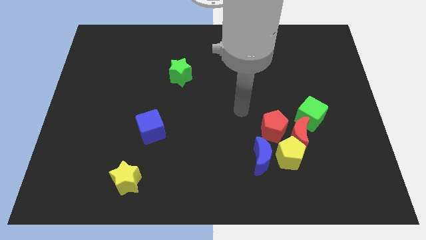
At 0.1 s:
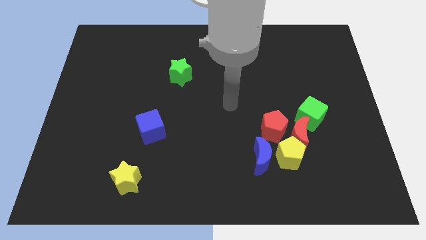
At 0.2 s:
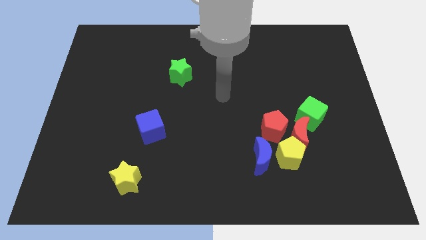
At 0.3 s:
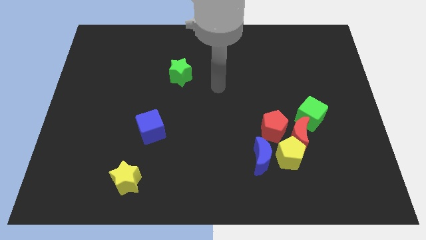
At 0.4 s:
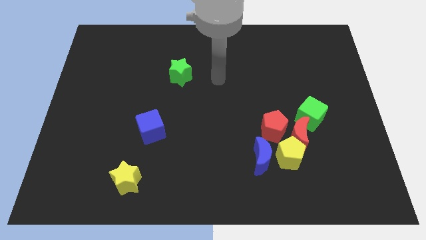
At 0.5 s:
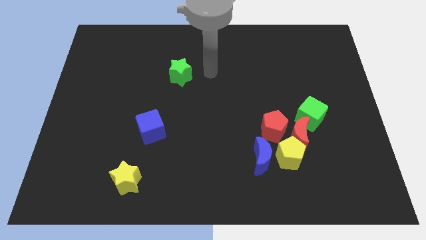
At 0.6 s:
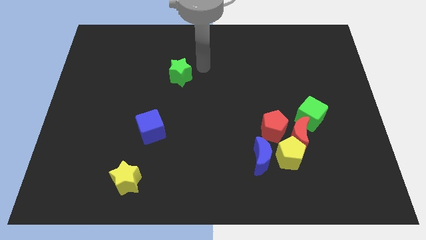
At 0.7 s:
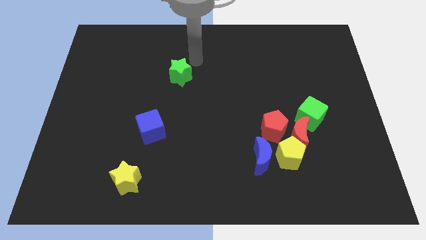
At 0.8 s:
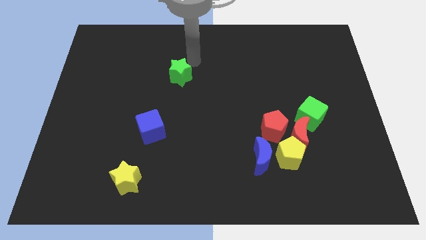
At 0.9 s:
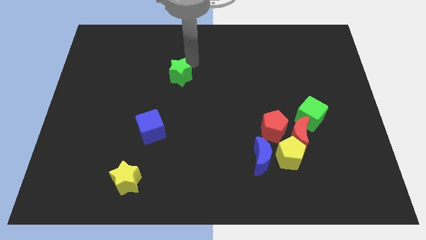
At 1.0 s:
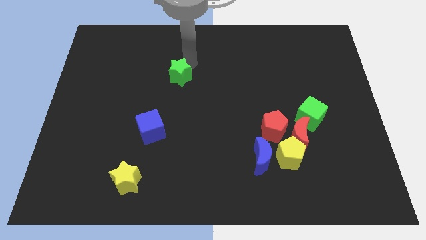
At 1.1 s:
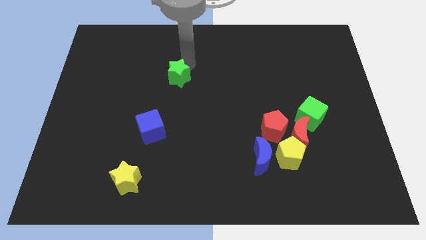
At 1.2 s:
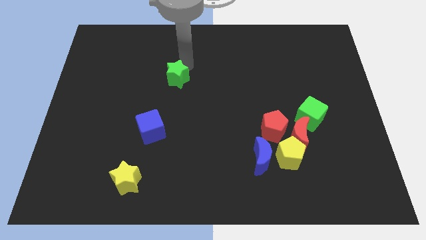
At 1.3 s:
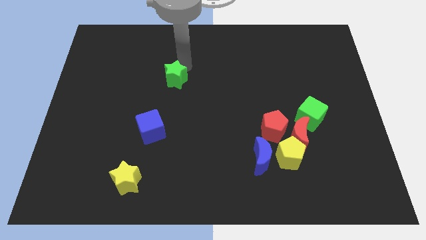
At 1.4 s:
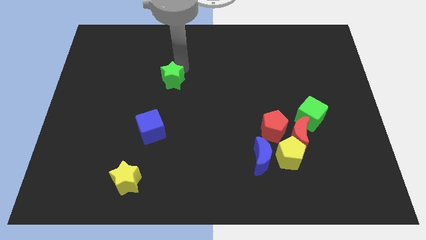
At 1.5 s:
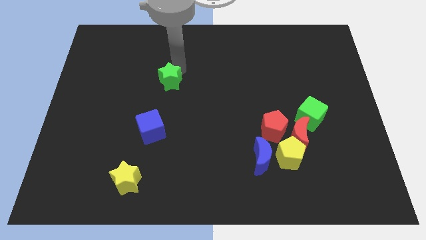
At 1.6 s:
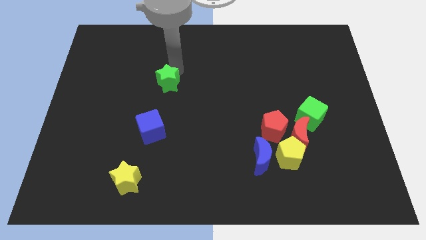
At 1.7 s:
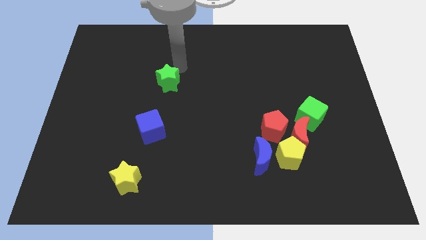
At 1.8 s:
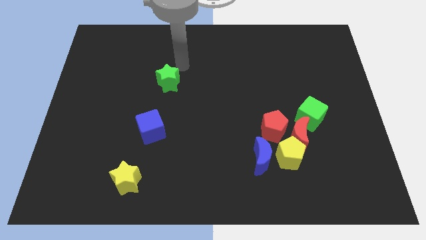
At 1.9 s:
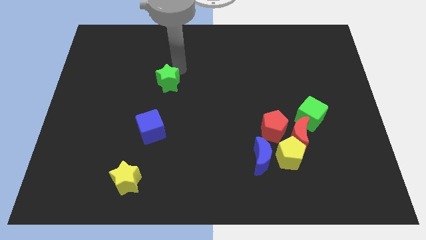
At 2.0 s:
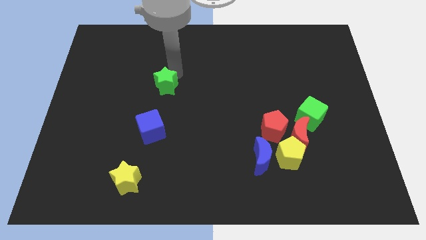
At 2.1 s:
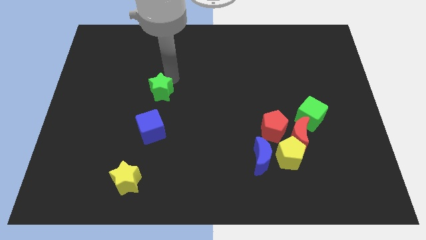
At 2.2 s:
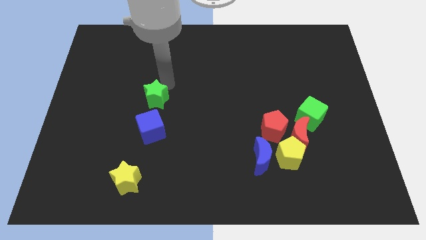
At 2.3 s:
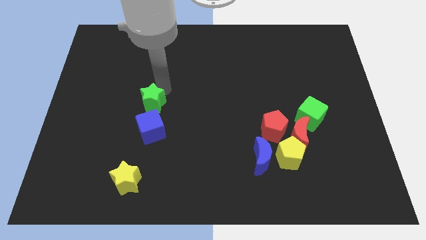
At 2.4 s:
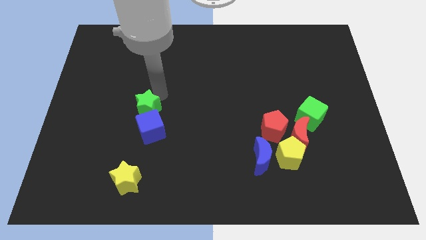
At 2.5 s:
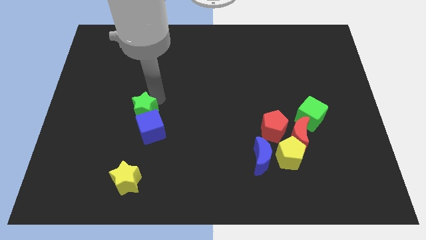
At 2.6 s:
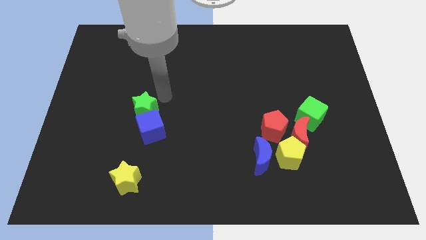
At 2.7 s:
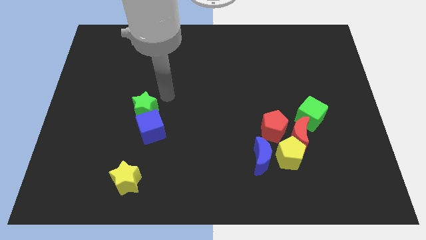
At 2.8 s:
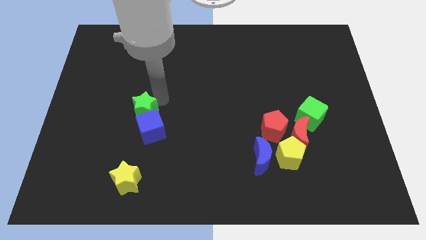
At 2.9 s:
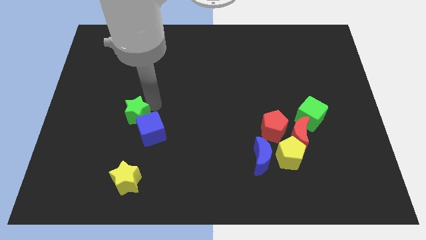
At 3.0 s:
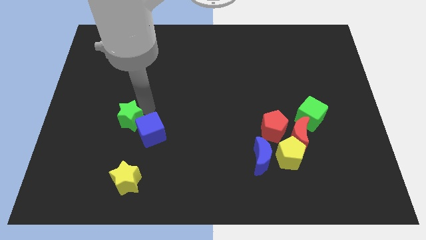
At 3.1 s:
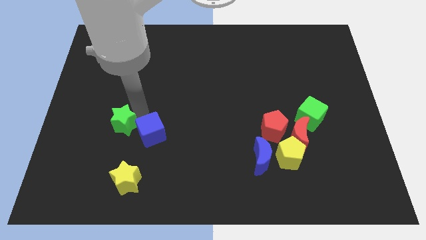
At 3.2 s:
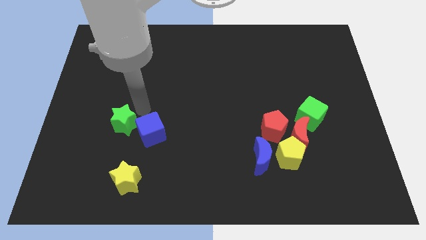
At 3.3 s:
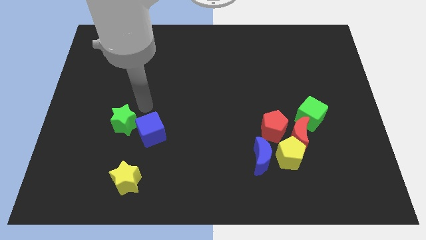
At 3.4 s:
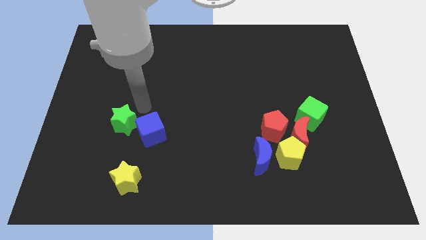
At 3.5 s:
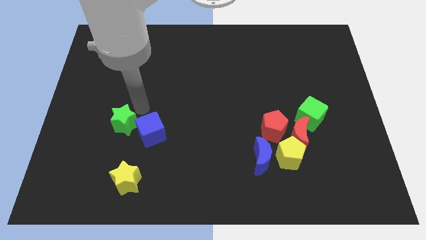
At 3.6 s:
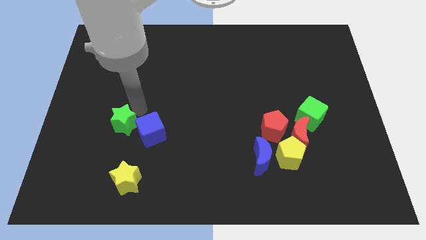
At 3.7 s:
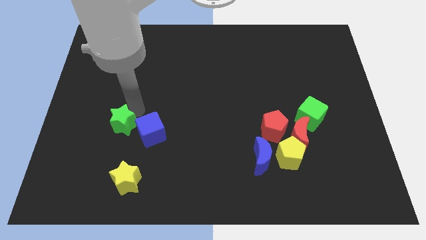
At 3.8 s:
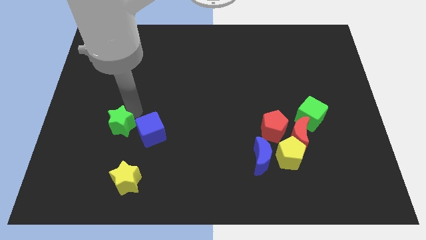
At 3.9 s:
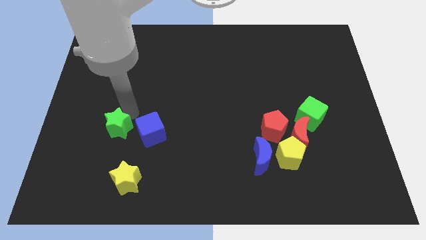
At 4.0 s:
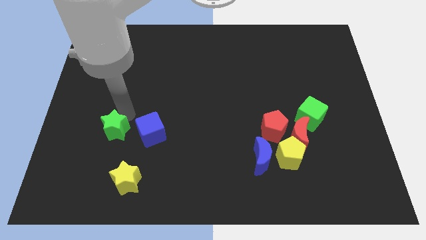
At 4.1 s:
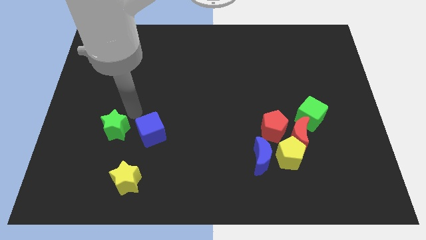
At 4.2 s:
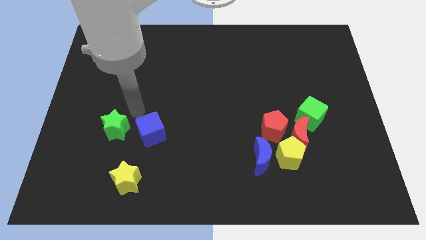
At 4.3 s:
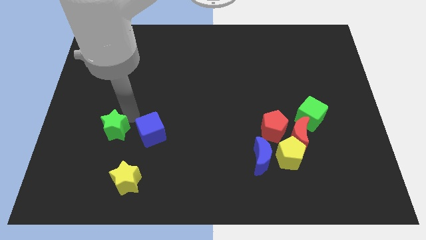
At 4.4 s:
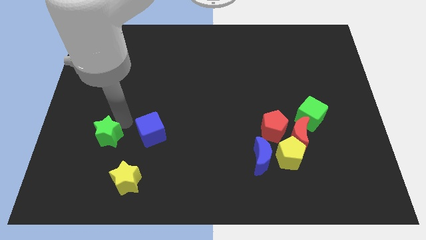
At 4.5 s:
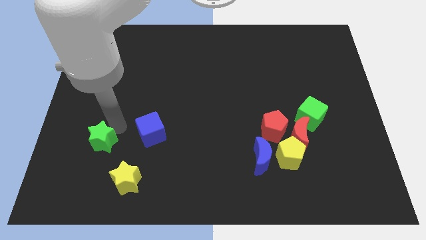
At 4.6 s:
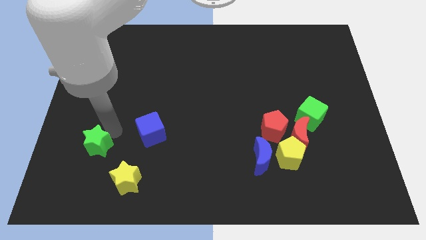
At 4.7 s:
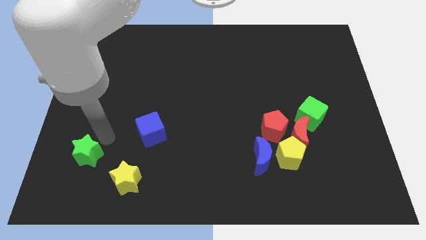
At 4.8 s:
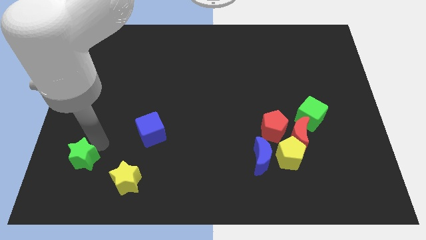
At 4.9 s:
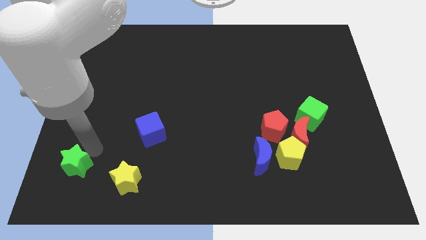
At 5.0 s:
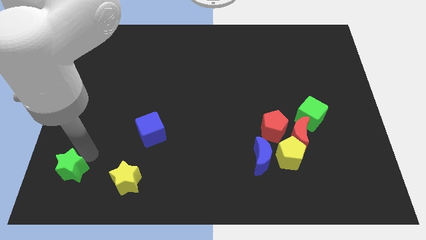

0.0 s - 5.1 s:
slide the green star to the bottom left

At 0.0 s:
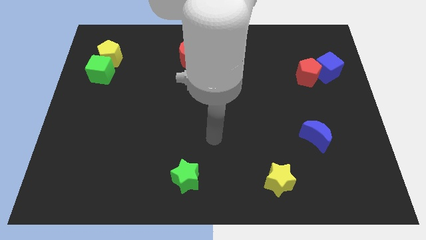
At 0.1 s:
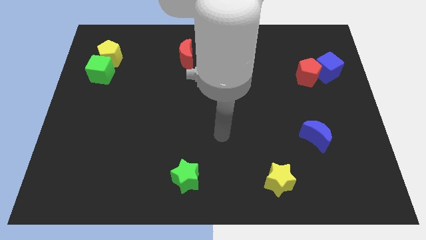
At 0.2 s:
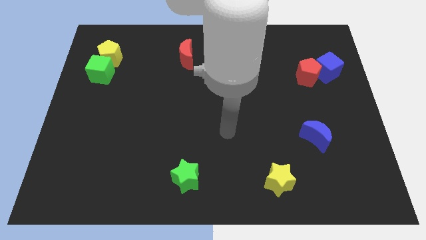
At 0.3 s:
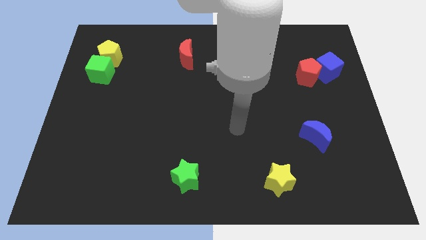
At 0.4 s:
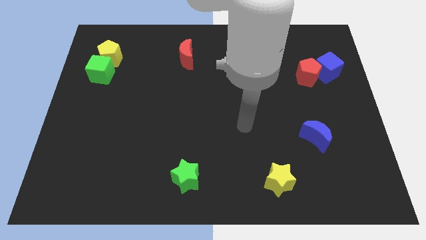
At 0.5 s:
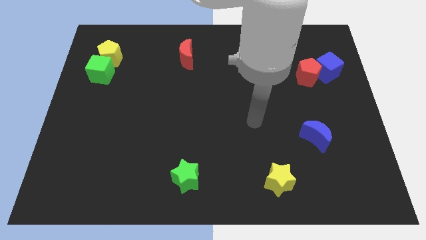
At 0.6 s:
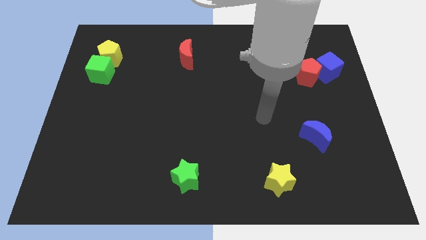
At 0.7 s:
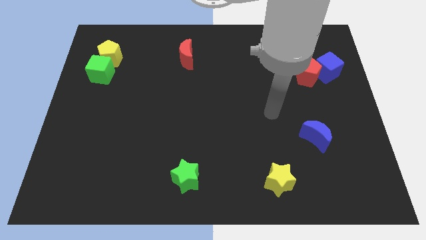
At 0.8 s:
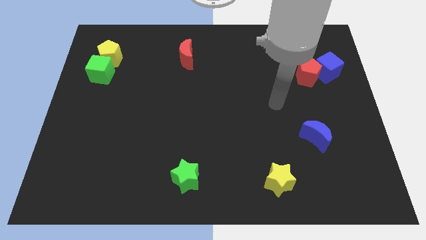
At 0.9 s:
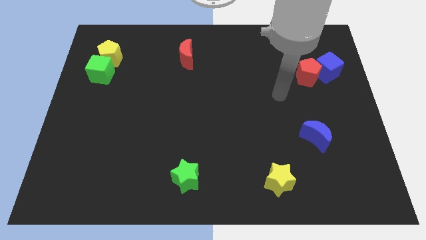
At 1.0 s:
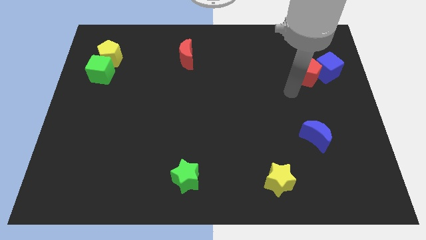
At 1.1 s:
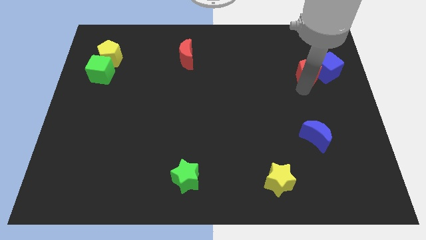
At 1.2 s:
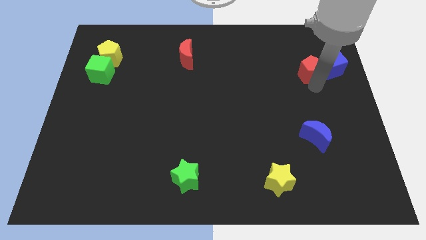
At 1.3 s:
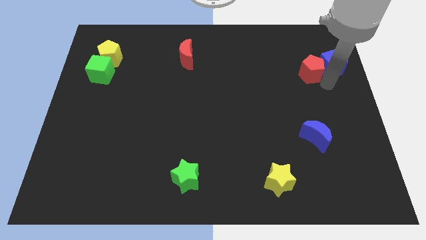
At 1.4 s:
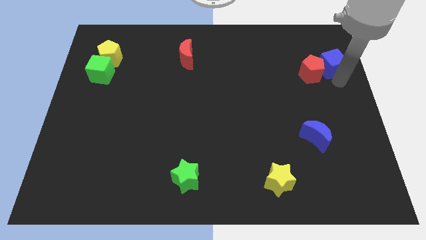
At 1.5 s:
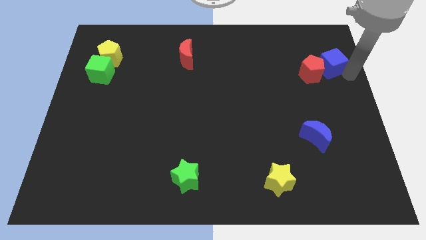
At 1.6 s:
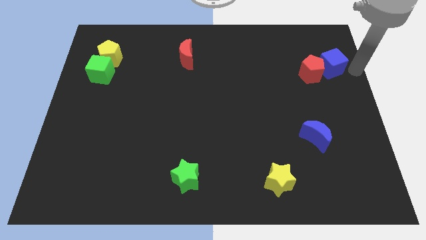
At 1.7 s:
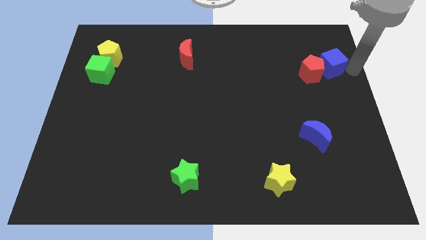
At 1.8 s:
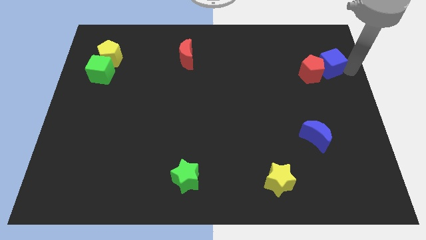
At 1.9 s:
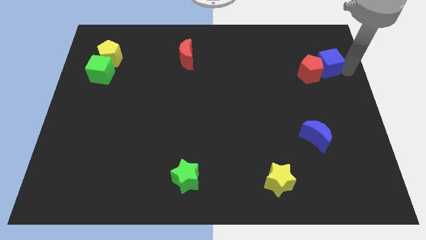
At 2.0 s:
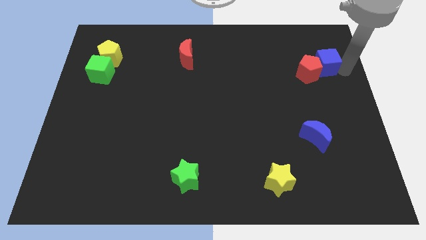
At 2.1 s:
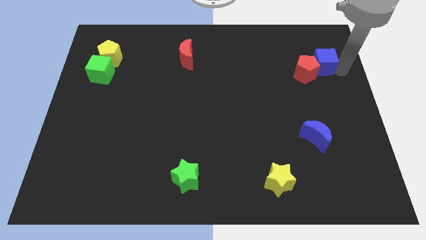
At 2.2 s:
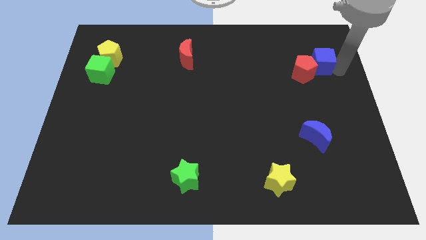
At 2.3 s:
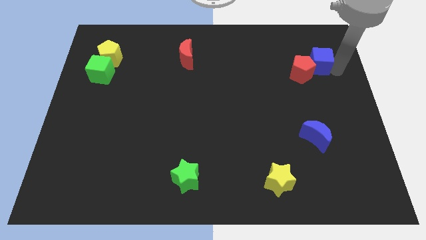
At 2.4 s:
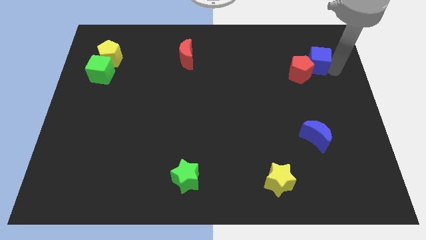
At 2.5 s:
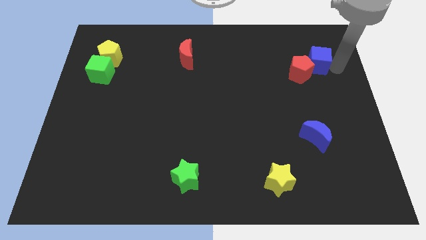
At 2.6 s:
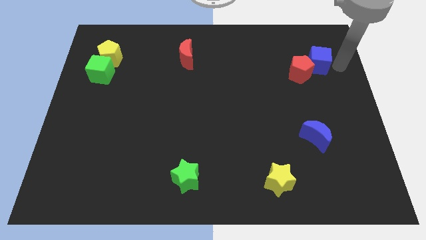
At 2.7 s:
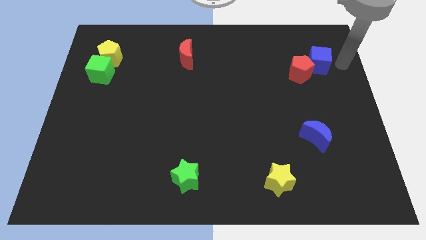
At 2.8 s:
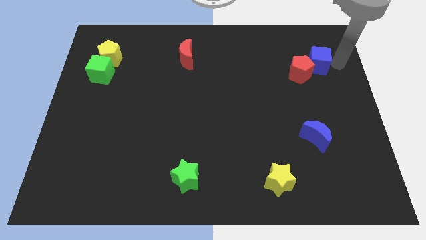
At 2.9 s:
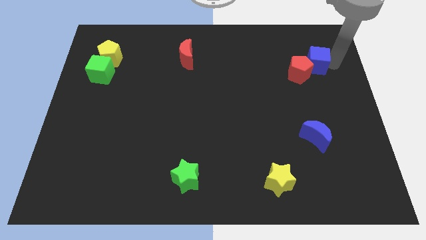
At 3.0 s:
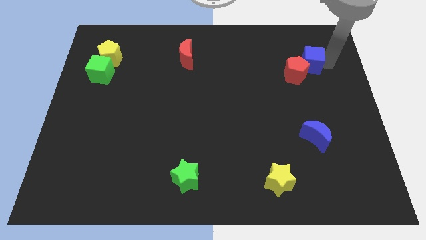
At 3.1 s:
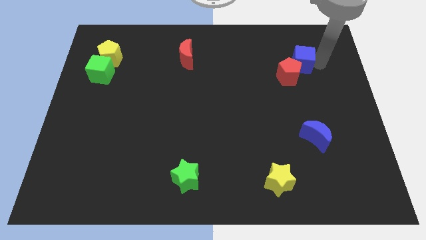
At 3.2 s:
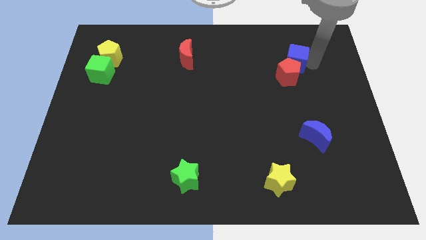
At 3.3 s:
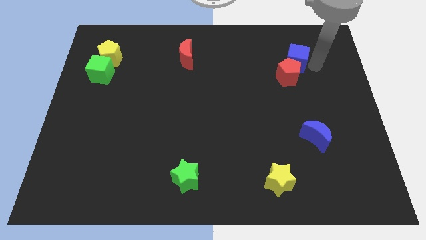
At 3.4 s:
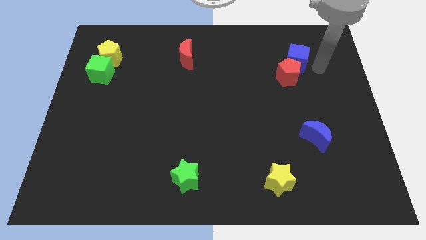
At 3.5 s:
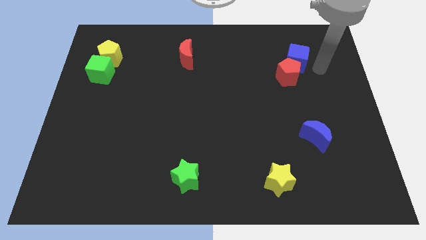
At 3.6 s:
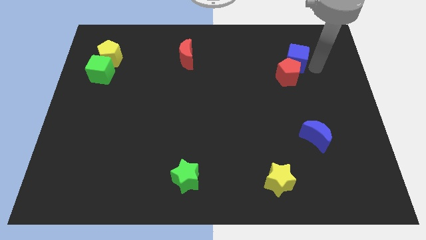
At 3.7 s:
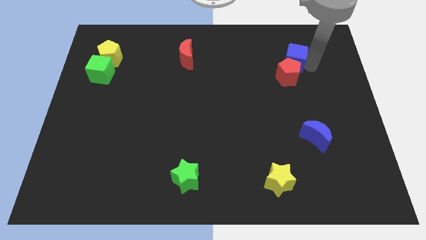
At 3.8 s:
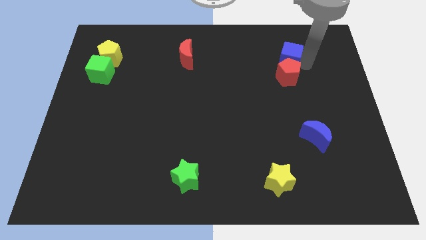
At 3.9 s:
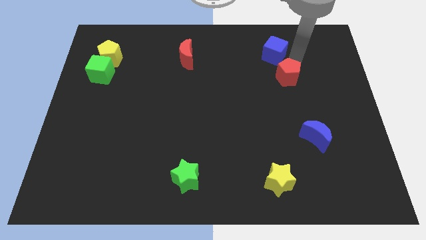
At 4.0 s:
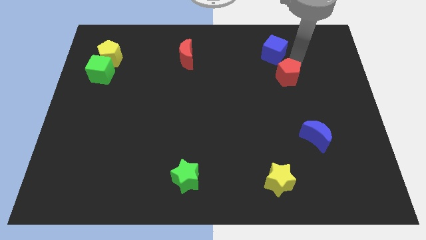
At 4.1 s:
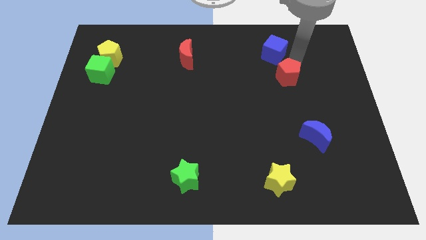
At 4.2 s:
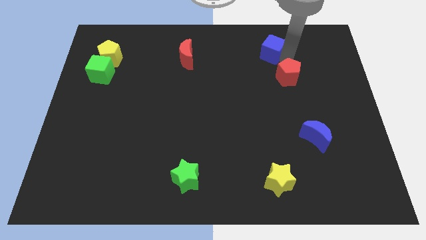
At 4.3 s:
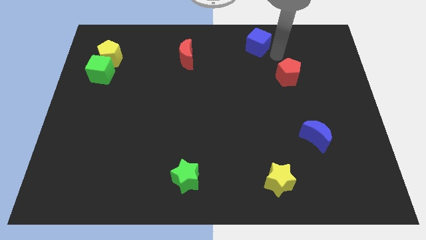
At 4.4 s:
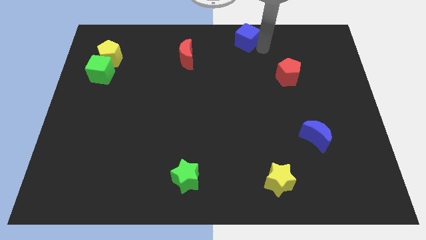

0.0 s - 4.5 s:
move the blue cube to the top side
